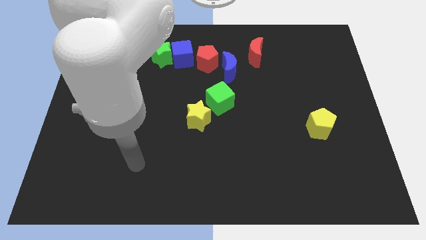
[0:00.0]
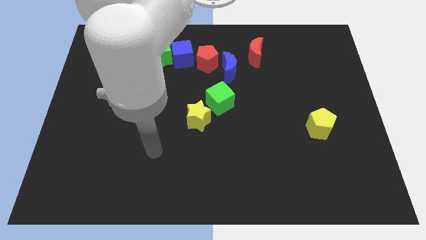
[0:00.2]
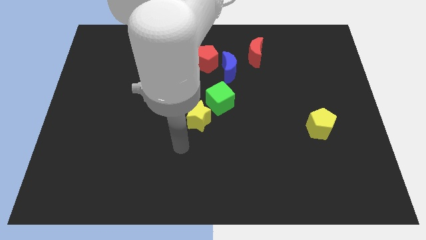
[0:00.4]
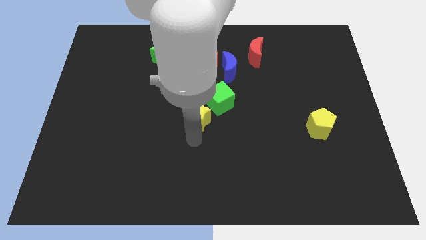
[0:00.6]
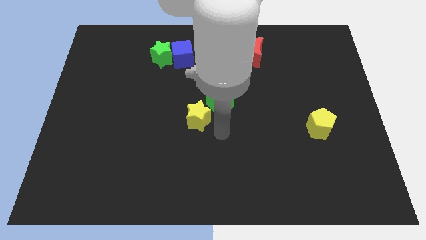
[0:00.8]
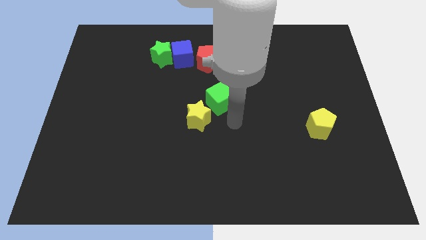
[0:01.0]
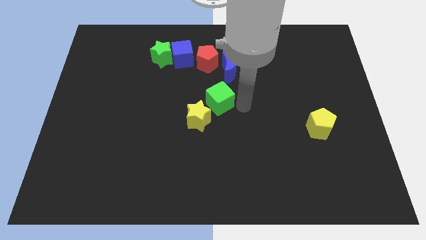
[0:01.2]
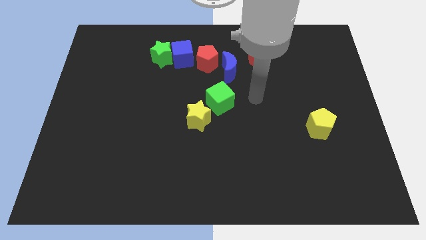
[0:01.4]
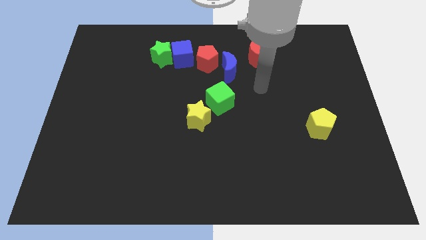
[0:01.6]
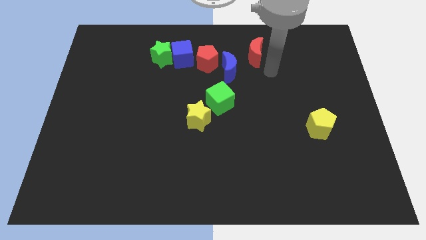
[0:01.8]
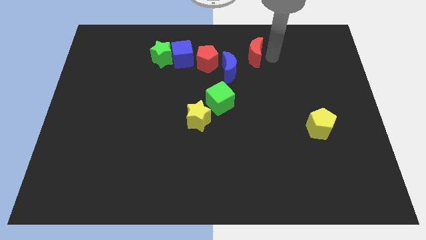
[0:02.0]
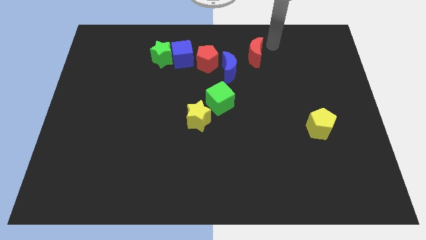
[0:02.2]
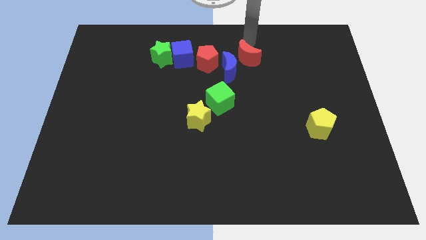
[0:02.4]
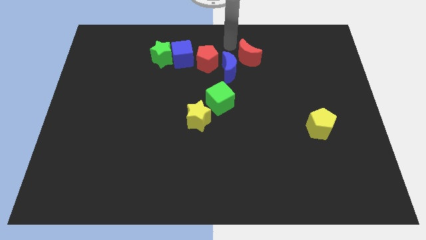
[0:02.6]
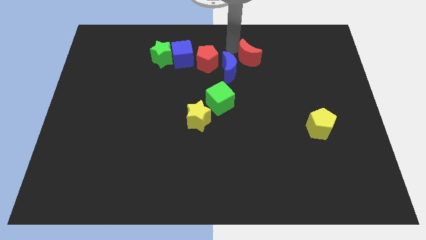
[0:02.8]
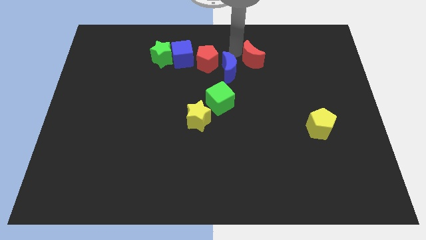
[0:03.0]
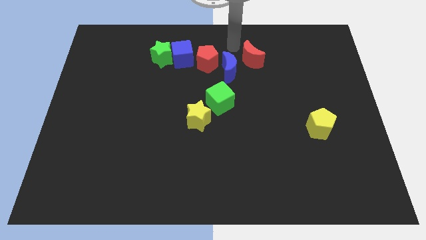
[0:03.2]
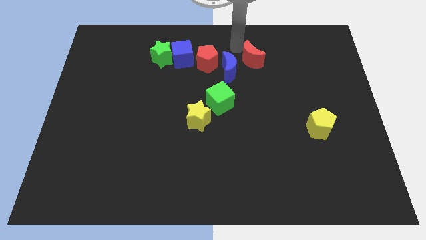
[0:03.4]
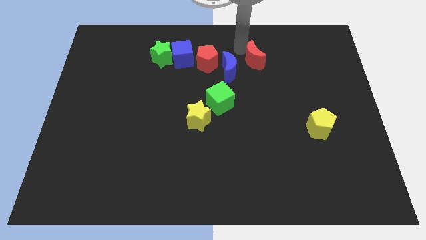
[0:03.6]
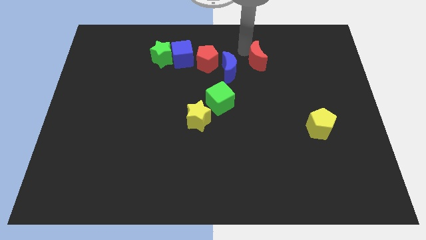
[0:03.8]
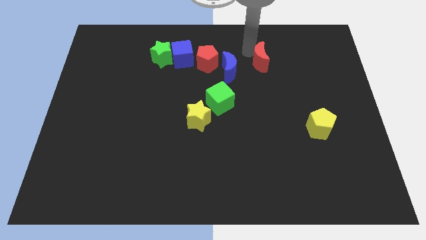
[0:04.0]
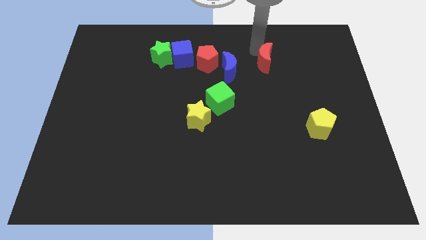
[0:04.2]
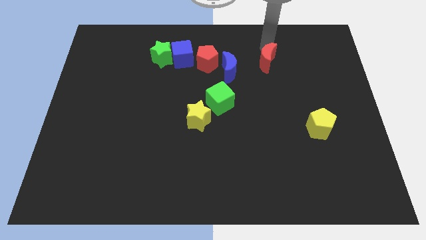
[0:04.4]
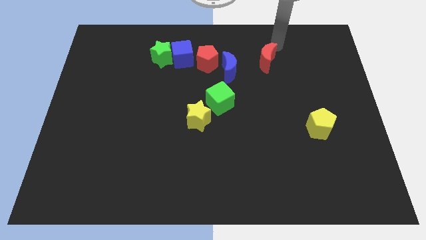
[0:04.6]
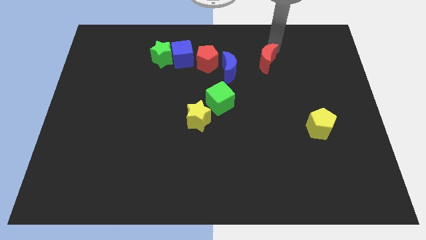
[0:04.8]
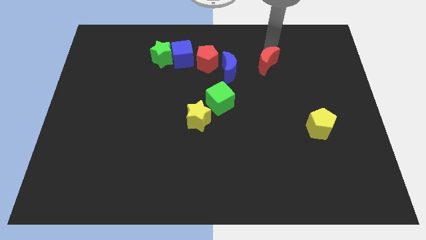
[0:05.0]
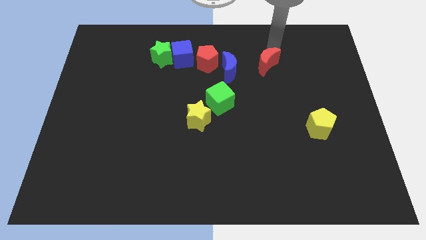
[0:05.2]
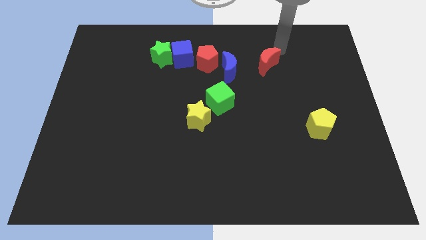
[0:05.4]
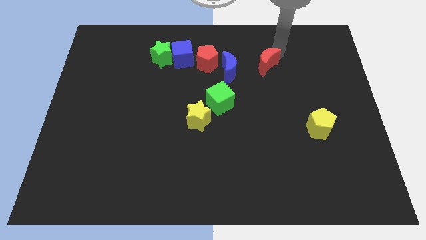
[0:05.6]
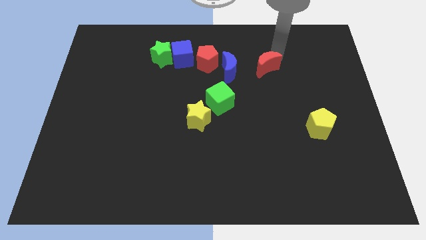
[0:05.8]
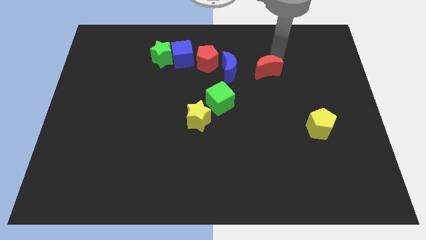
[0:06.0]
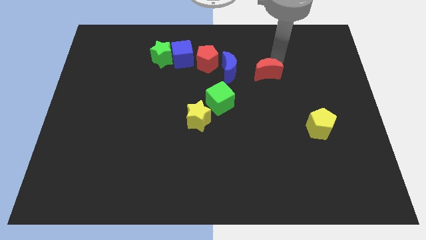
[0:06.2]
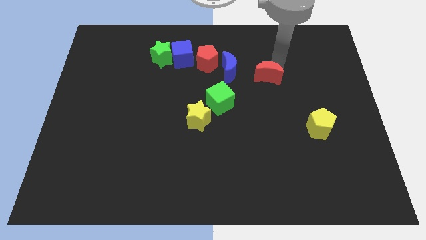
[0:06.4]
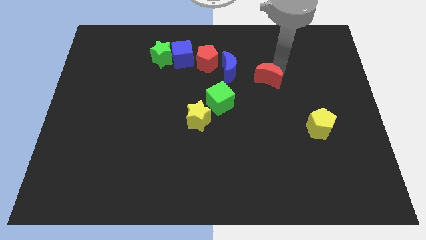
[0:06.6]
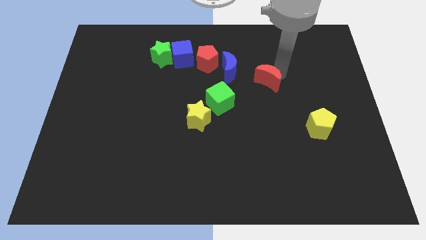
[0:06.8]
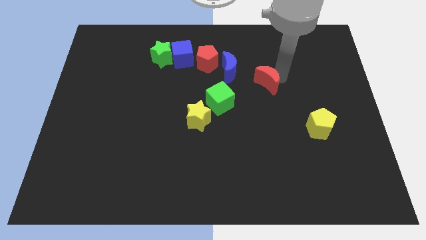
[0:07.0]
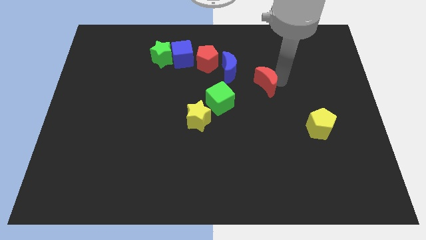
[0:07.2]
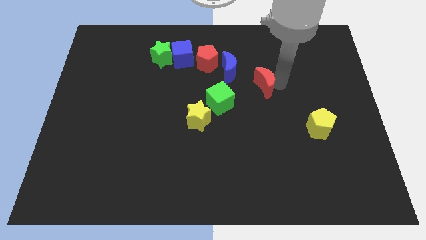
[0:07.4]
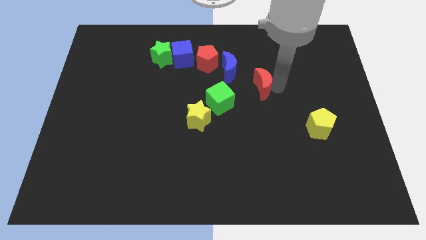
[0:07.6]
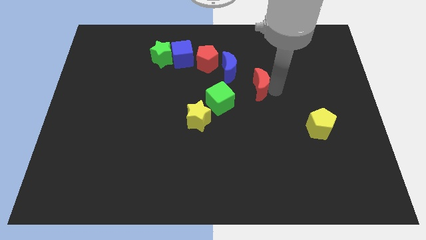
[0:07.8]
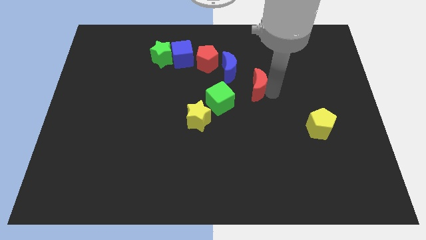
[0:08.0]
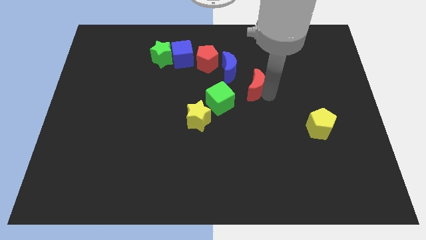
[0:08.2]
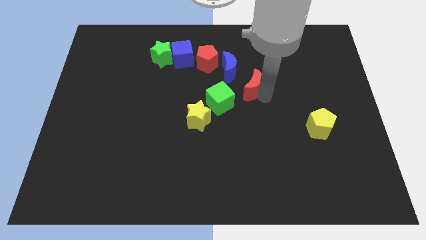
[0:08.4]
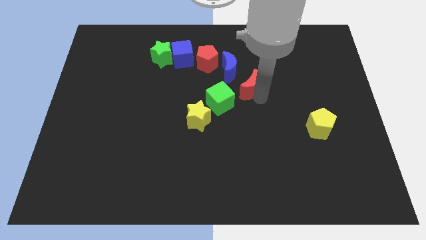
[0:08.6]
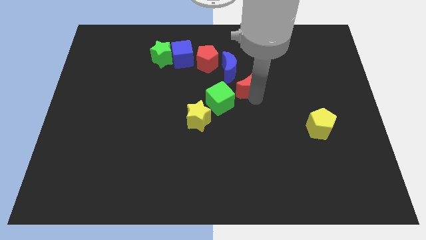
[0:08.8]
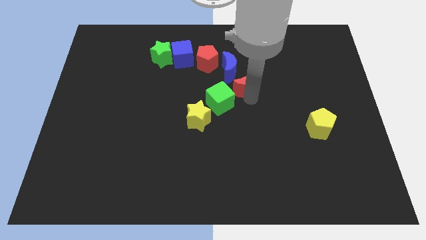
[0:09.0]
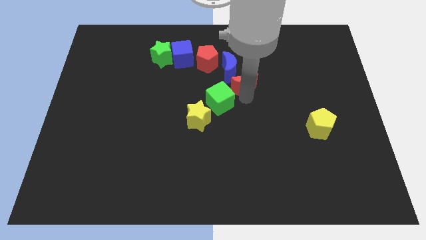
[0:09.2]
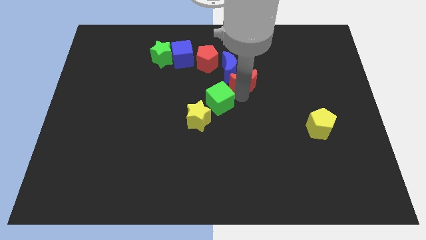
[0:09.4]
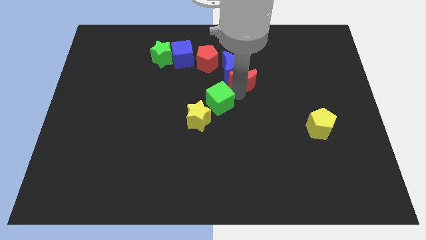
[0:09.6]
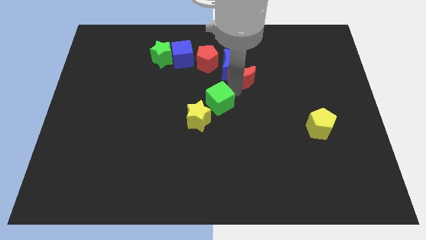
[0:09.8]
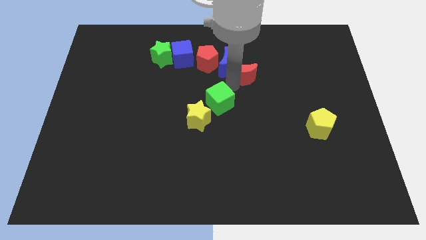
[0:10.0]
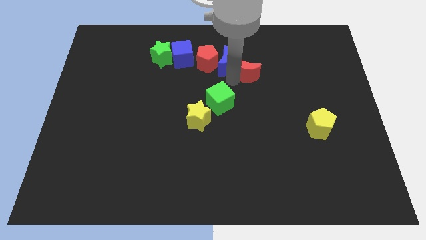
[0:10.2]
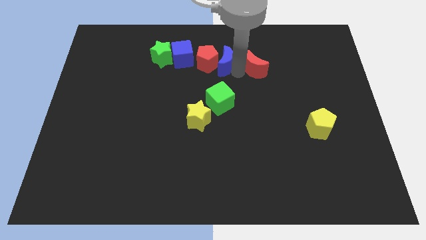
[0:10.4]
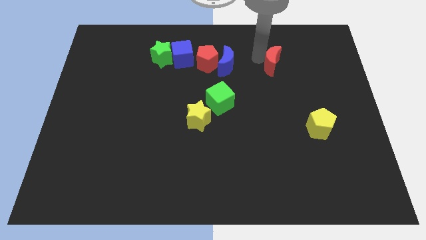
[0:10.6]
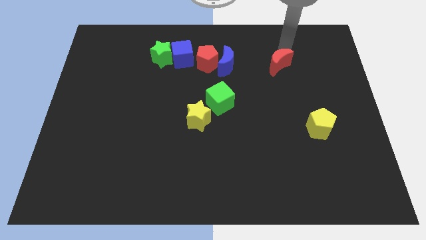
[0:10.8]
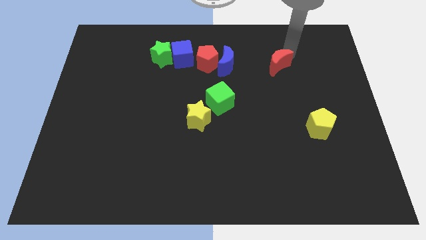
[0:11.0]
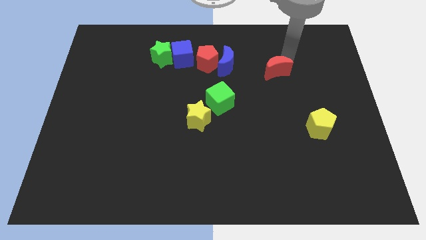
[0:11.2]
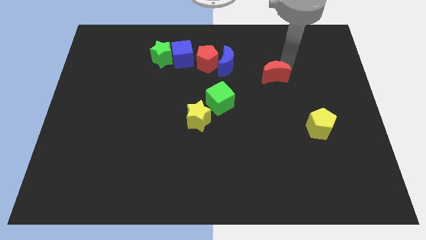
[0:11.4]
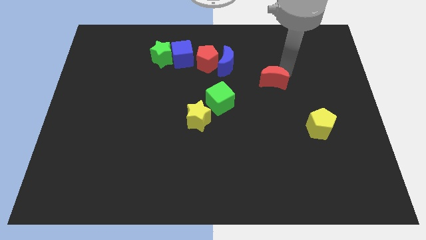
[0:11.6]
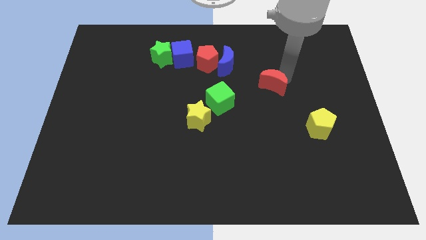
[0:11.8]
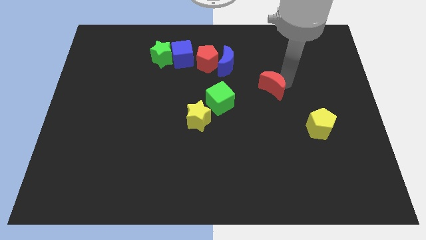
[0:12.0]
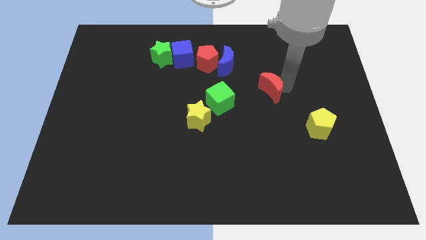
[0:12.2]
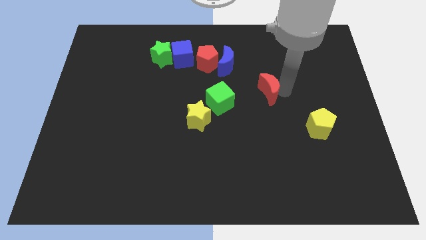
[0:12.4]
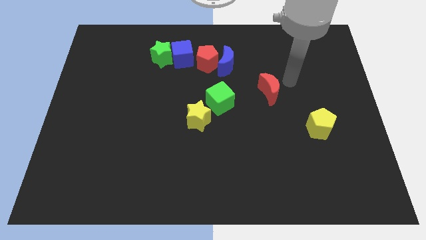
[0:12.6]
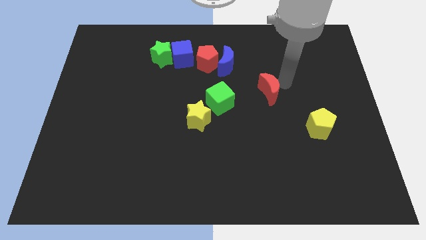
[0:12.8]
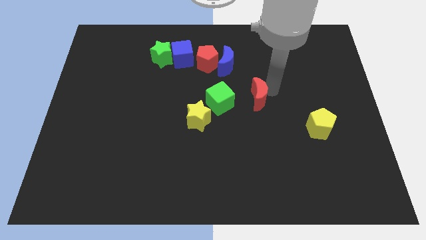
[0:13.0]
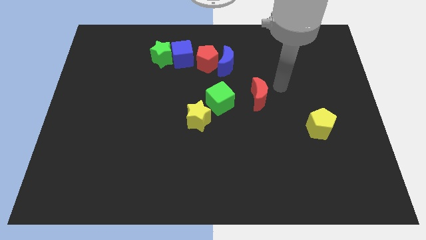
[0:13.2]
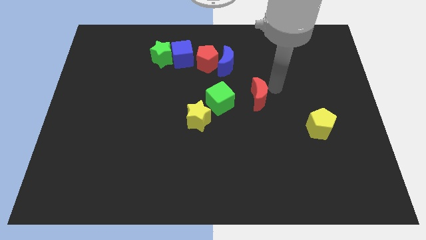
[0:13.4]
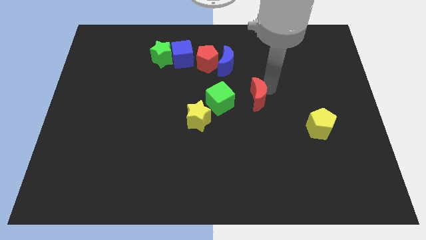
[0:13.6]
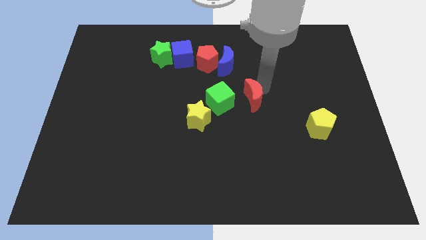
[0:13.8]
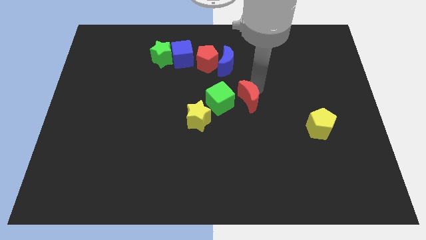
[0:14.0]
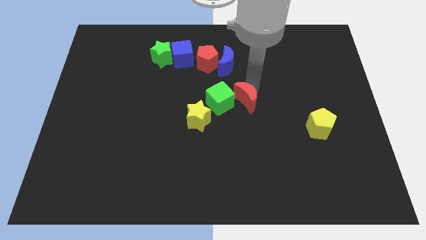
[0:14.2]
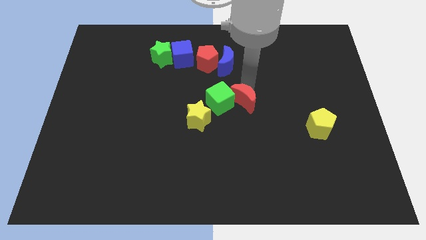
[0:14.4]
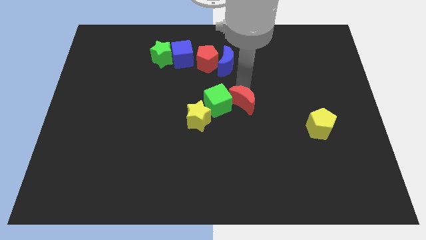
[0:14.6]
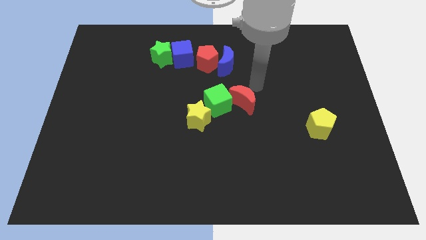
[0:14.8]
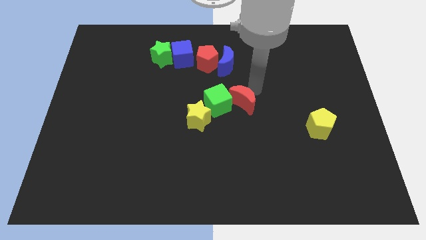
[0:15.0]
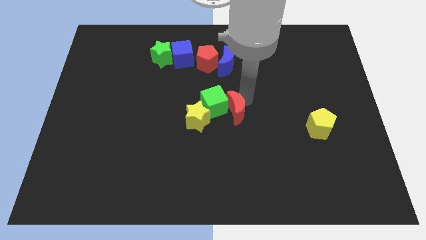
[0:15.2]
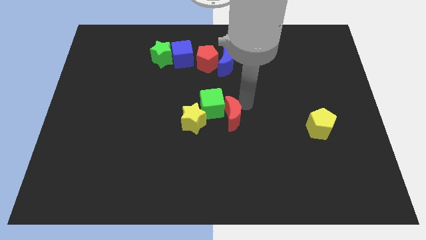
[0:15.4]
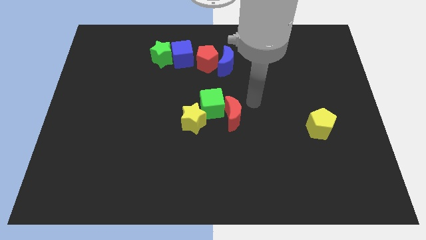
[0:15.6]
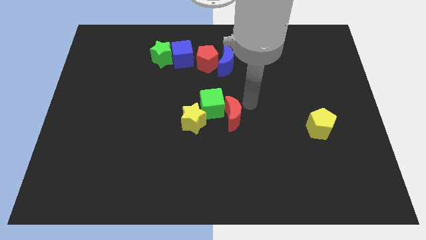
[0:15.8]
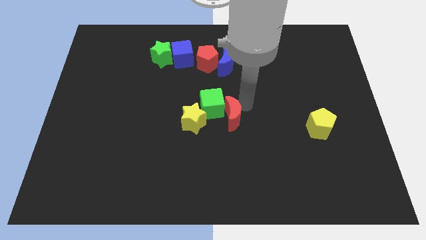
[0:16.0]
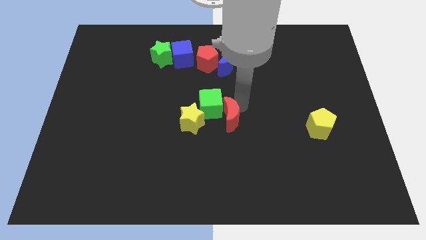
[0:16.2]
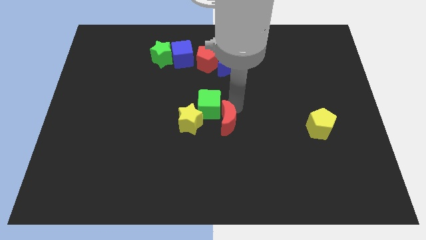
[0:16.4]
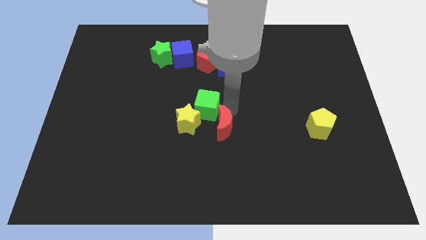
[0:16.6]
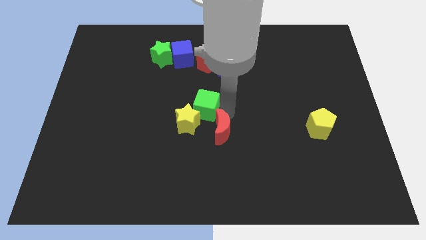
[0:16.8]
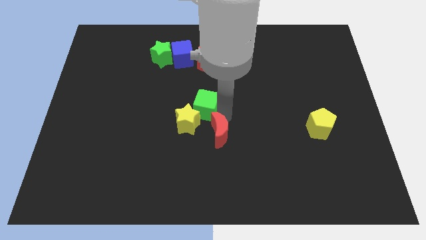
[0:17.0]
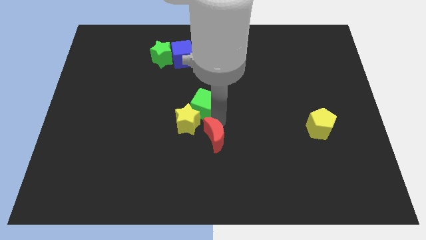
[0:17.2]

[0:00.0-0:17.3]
slide the red moon diagonally downwards and left
